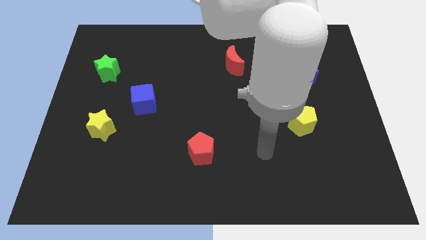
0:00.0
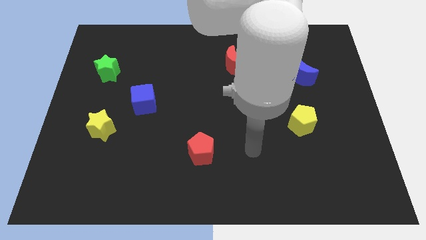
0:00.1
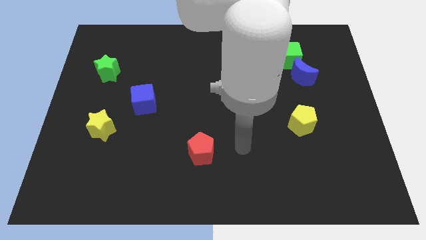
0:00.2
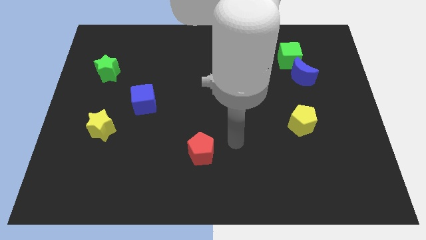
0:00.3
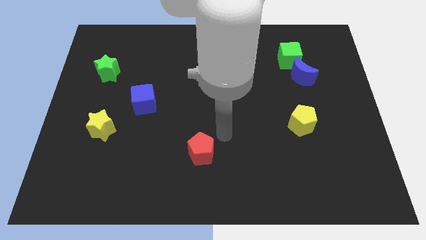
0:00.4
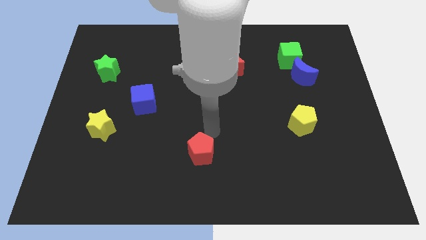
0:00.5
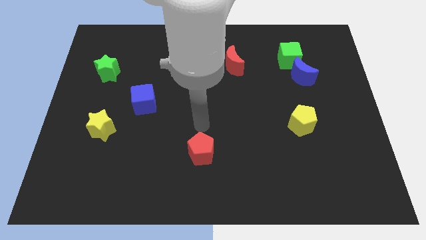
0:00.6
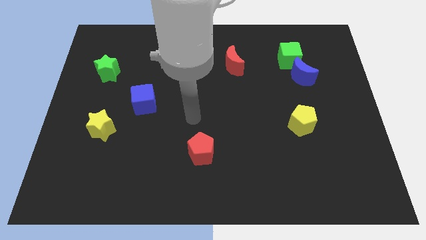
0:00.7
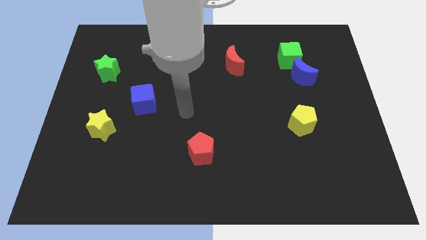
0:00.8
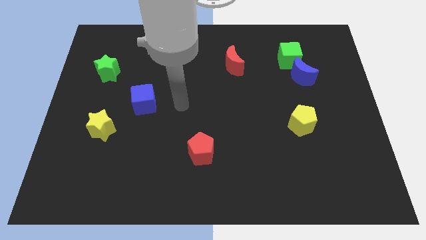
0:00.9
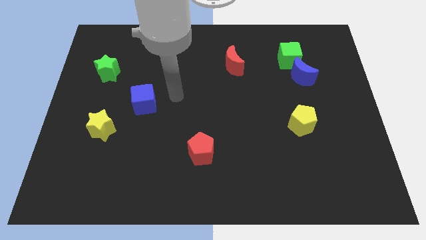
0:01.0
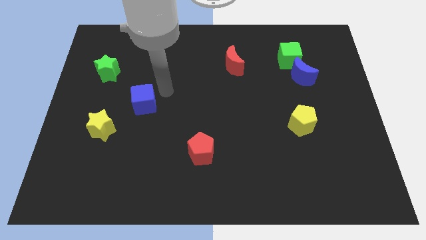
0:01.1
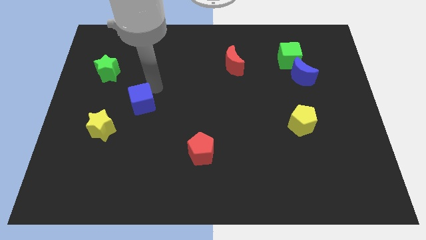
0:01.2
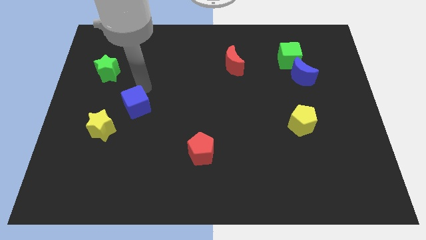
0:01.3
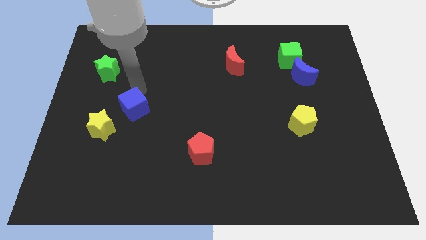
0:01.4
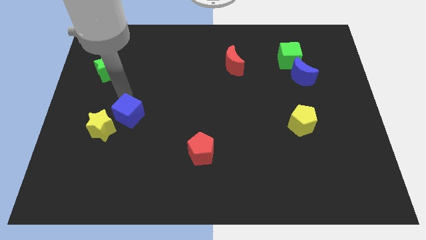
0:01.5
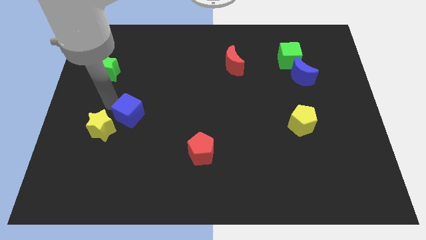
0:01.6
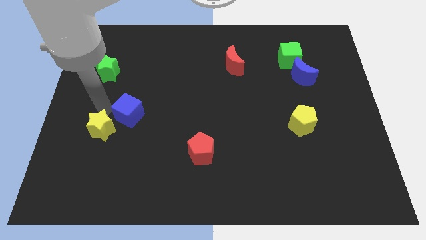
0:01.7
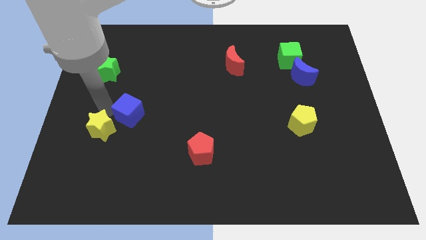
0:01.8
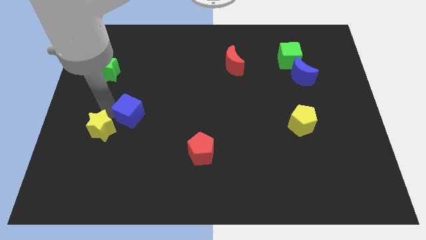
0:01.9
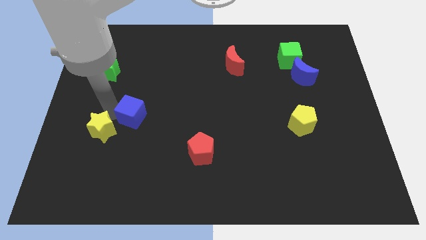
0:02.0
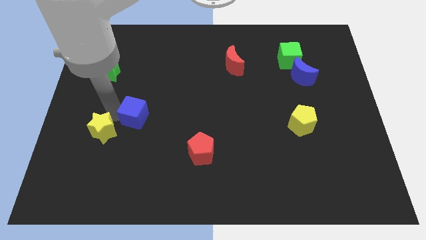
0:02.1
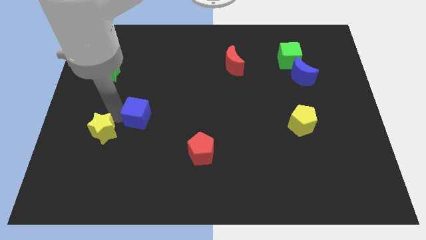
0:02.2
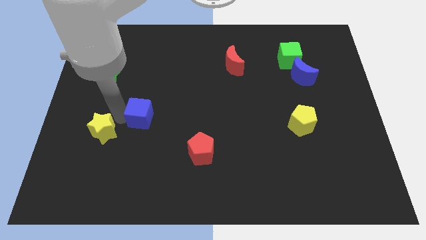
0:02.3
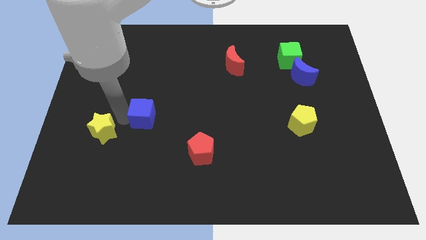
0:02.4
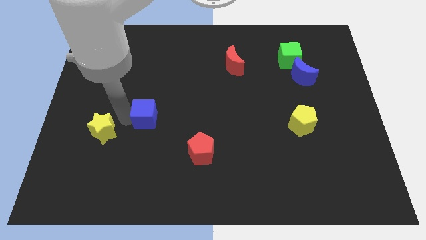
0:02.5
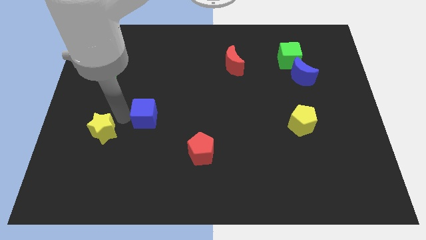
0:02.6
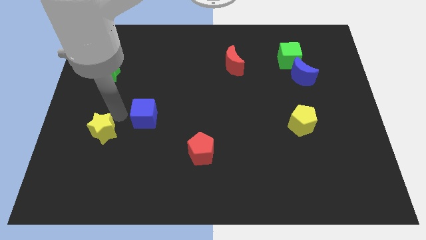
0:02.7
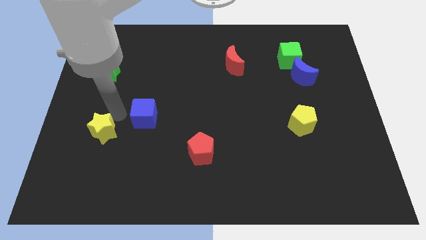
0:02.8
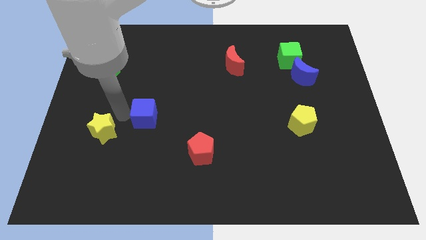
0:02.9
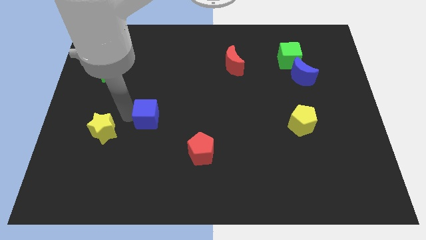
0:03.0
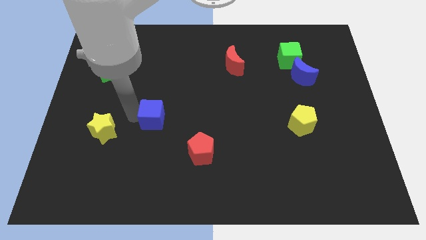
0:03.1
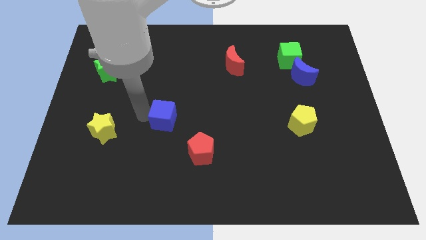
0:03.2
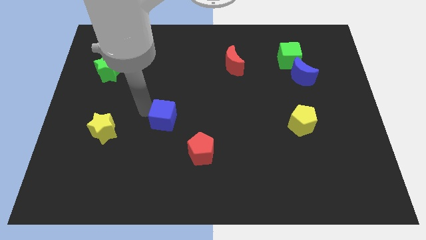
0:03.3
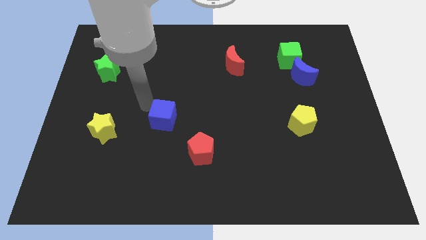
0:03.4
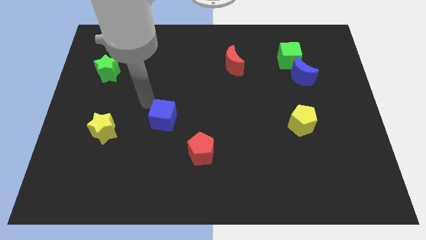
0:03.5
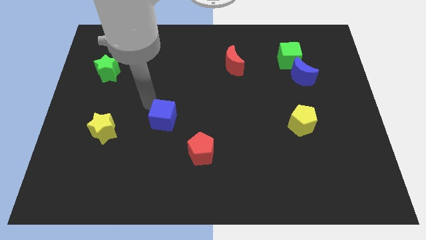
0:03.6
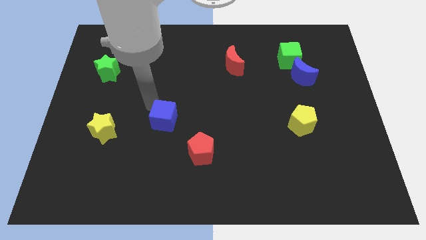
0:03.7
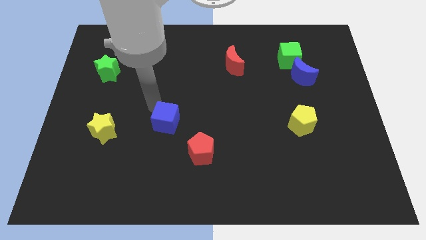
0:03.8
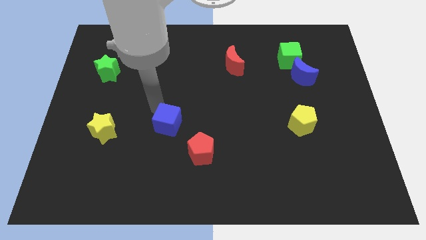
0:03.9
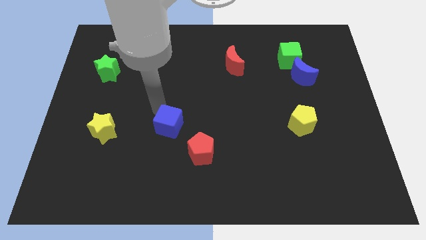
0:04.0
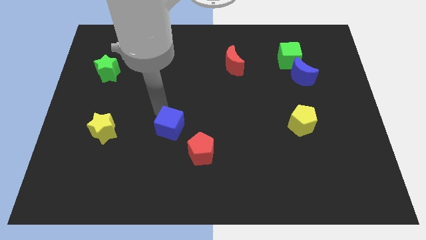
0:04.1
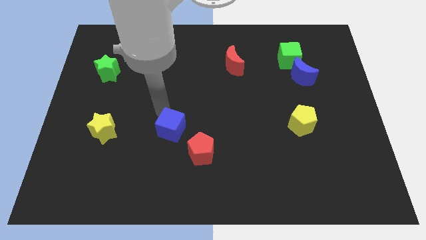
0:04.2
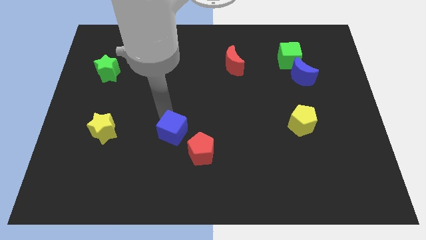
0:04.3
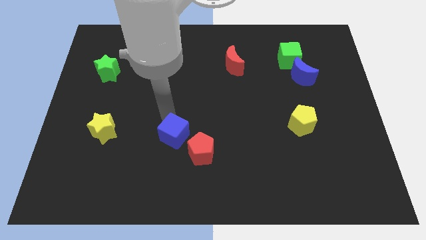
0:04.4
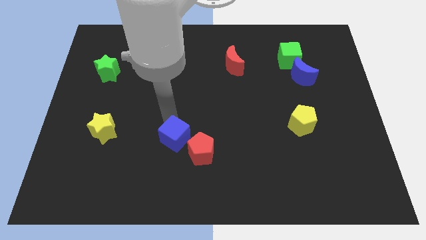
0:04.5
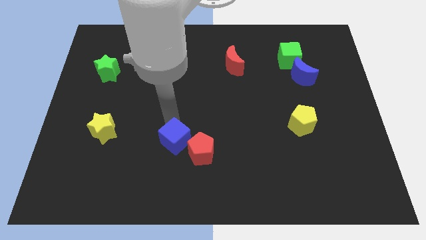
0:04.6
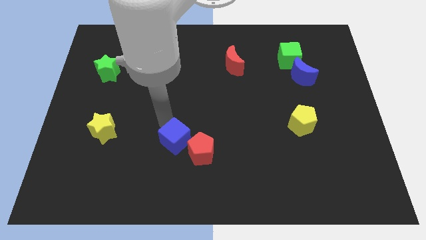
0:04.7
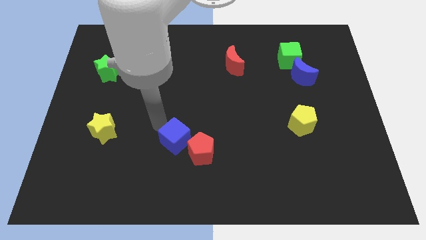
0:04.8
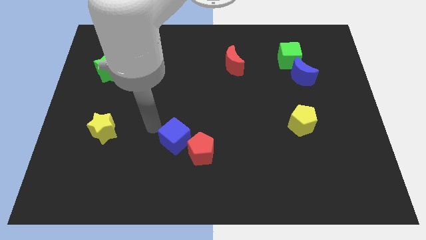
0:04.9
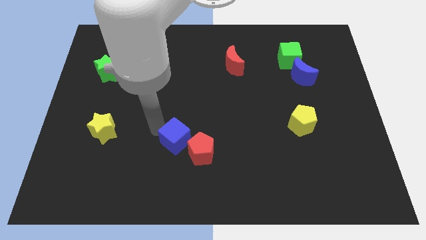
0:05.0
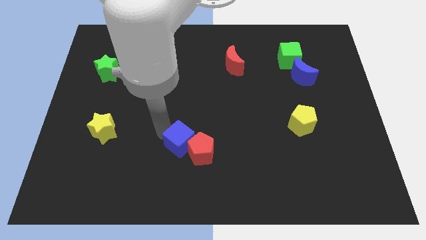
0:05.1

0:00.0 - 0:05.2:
push the blue cube close to the red pentagon

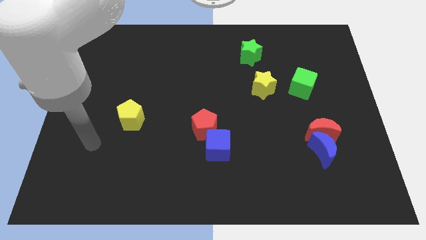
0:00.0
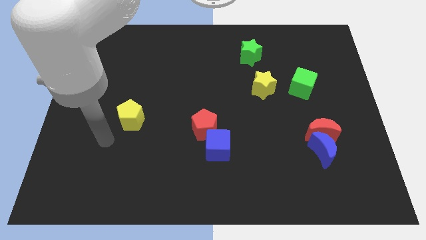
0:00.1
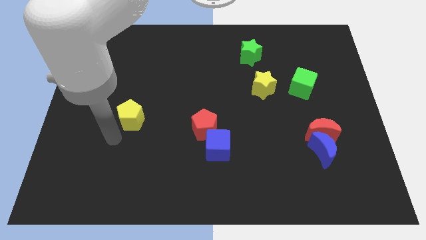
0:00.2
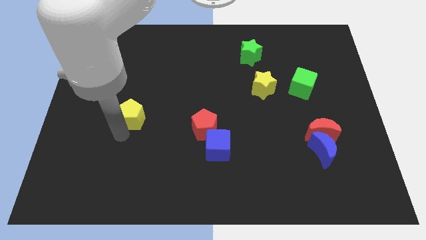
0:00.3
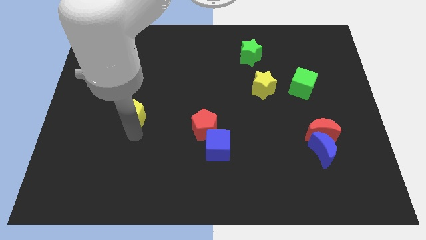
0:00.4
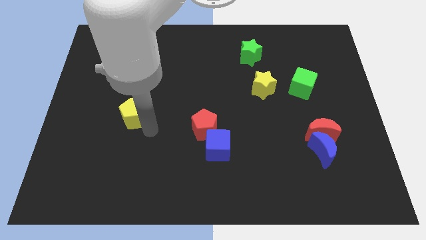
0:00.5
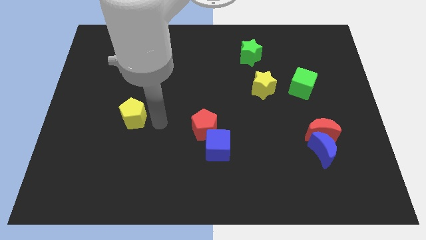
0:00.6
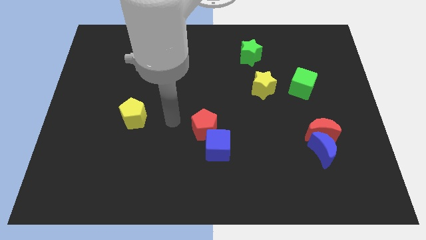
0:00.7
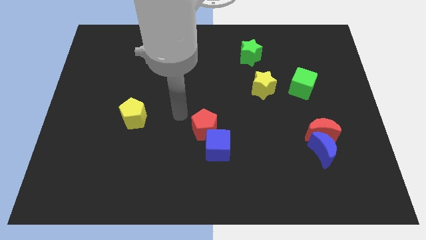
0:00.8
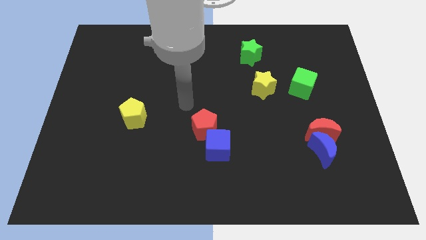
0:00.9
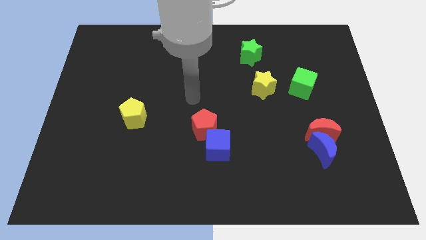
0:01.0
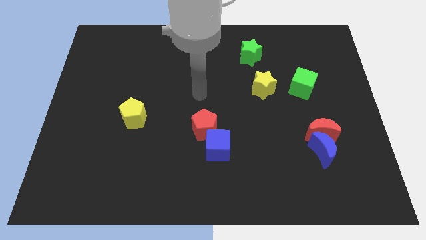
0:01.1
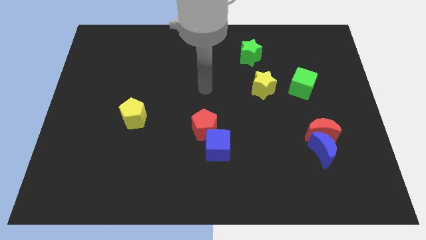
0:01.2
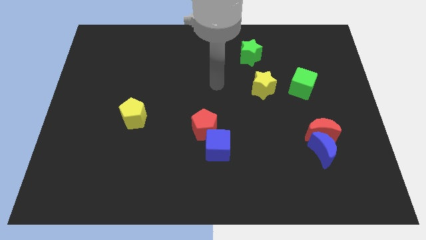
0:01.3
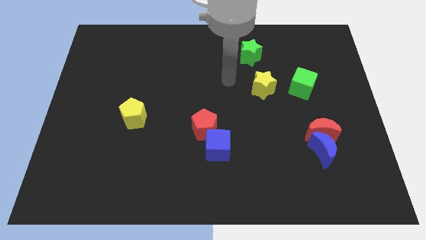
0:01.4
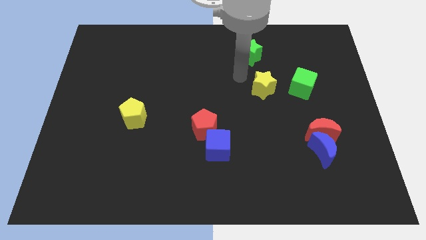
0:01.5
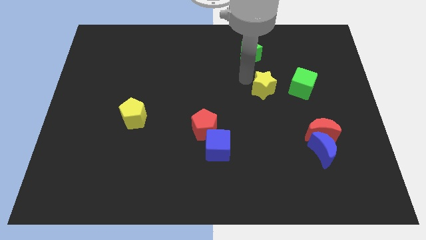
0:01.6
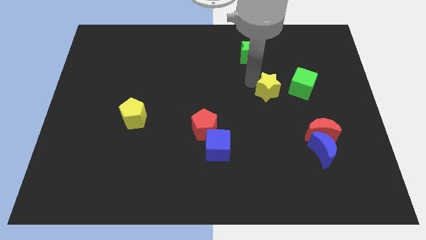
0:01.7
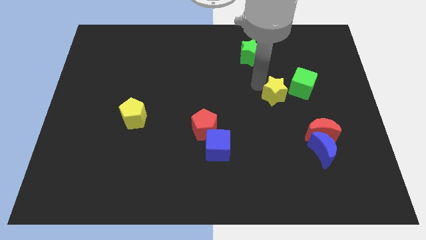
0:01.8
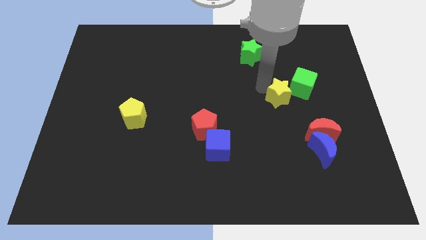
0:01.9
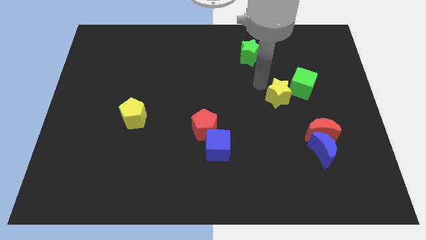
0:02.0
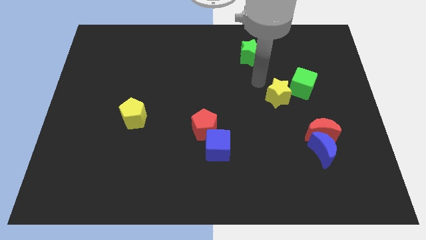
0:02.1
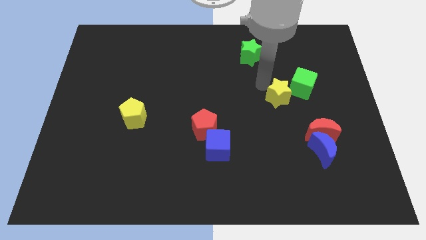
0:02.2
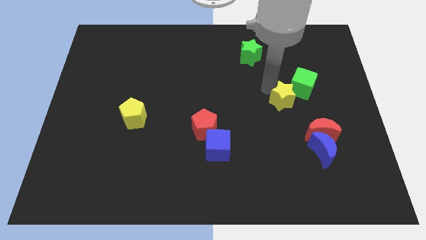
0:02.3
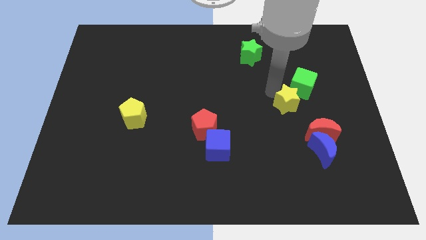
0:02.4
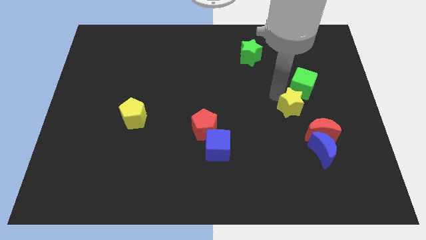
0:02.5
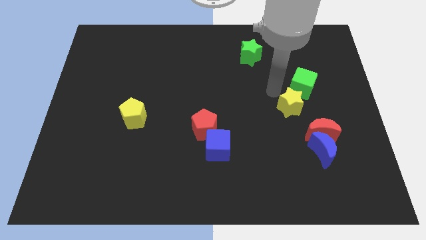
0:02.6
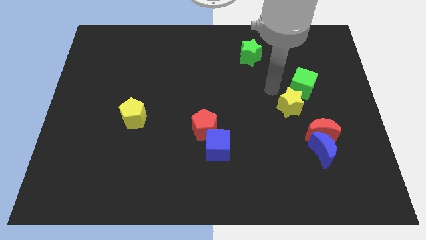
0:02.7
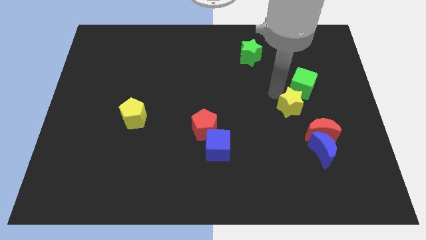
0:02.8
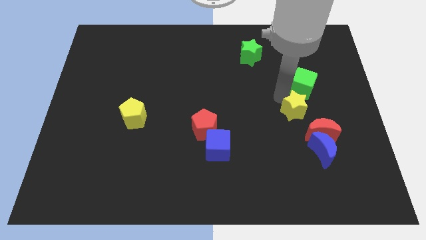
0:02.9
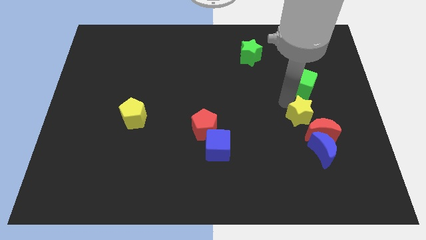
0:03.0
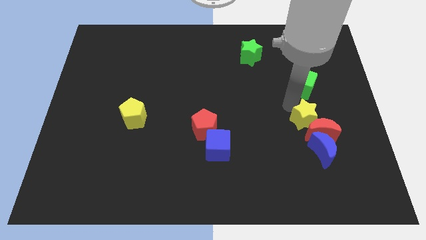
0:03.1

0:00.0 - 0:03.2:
move the yellow star towards the red moon
